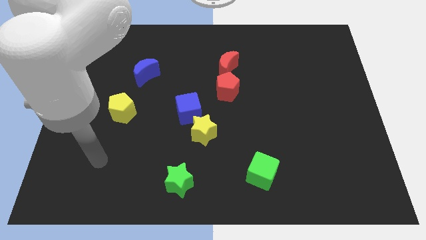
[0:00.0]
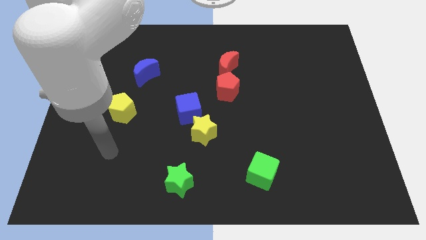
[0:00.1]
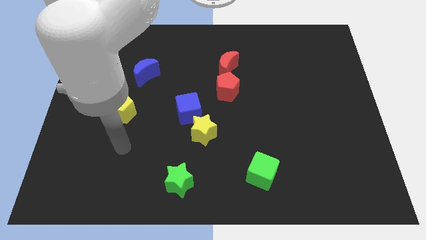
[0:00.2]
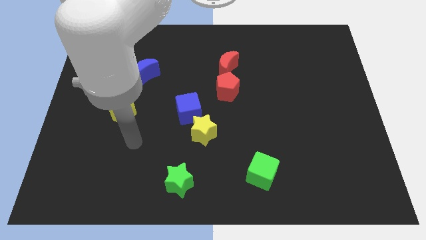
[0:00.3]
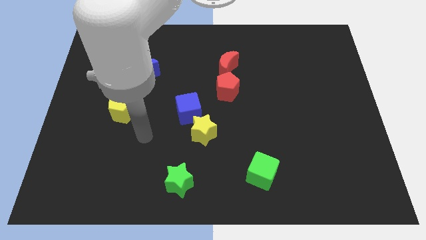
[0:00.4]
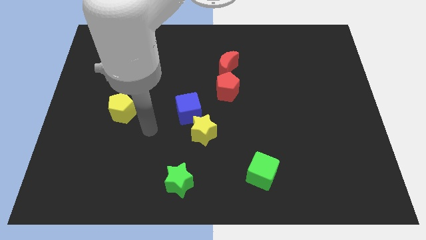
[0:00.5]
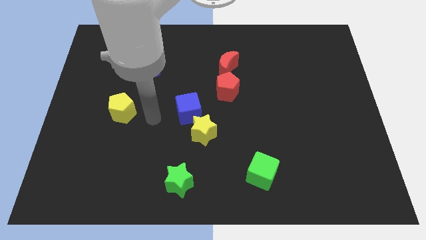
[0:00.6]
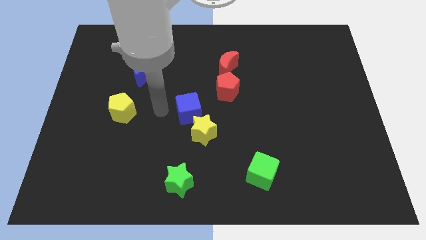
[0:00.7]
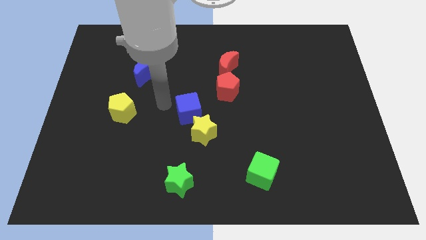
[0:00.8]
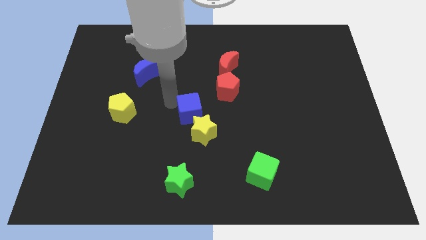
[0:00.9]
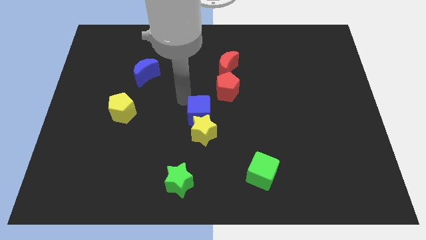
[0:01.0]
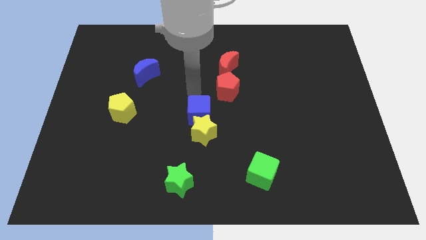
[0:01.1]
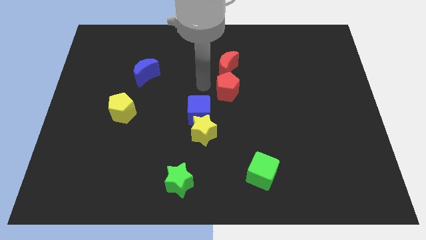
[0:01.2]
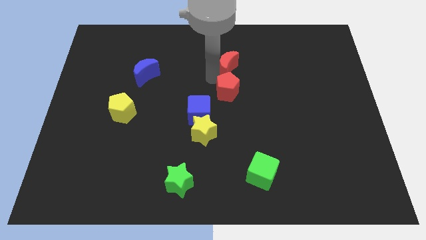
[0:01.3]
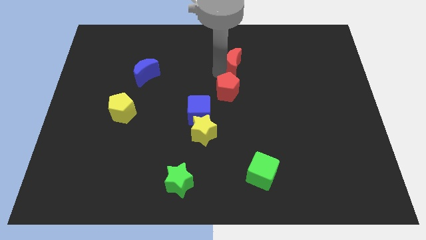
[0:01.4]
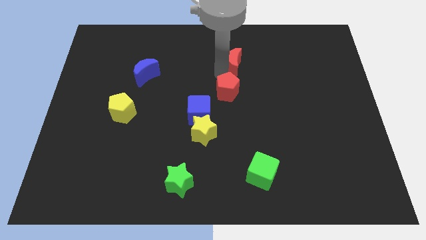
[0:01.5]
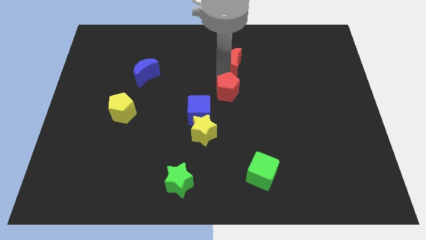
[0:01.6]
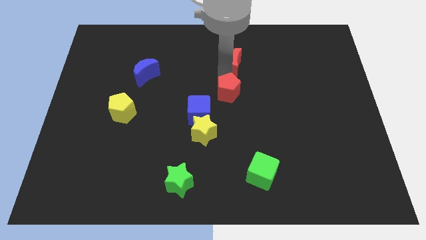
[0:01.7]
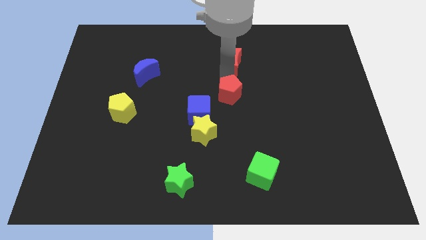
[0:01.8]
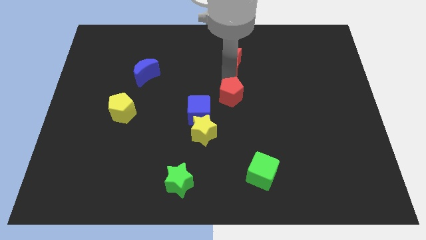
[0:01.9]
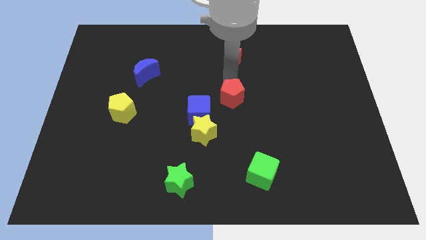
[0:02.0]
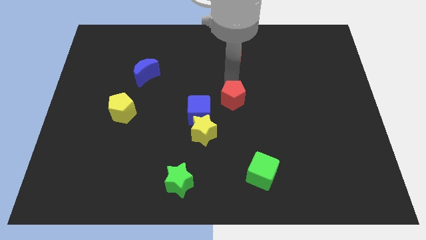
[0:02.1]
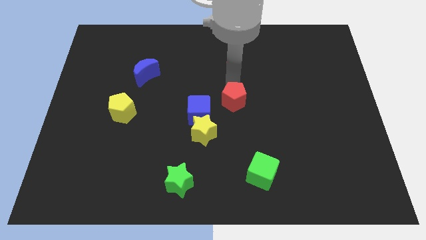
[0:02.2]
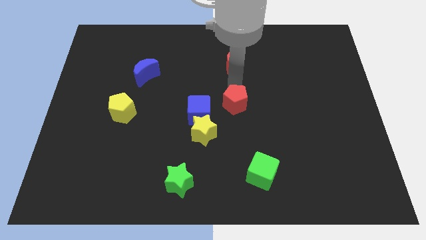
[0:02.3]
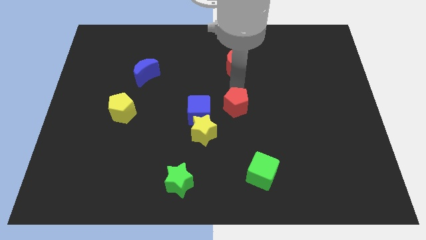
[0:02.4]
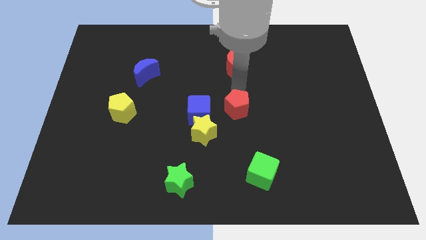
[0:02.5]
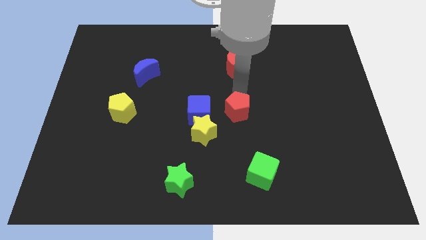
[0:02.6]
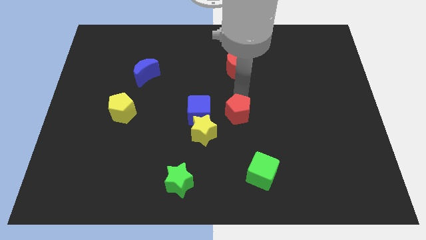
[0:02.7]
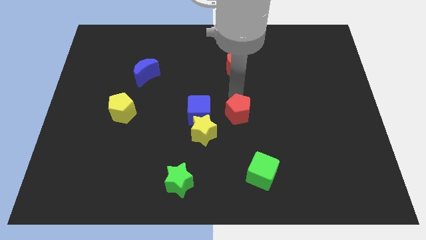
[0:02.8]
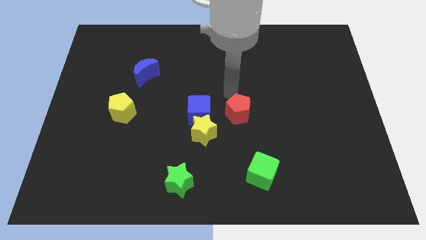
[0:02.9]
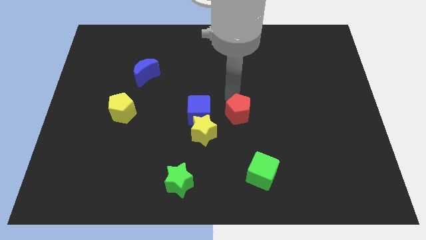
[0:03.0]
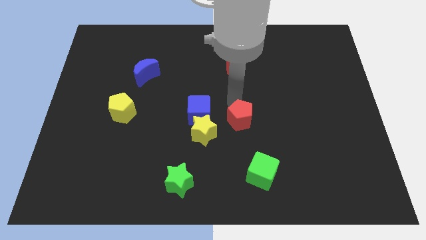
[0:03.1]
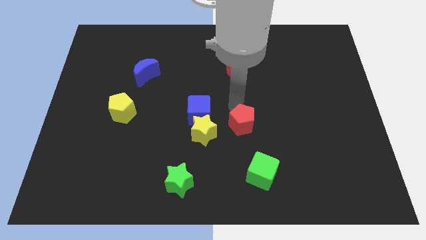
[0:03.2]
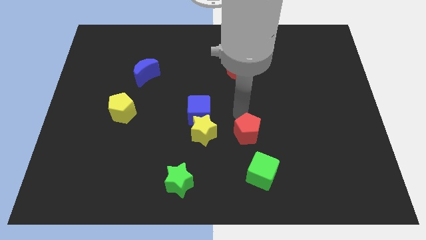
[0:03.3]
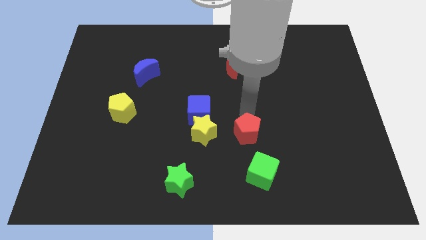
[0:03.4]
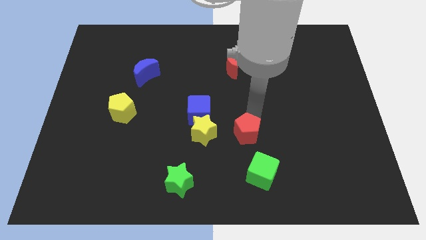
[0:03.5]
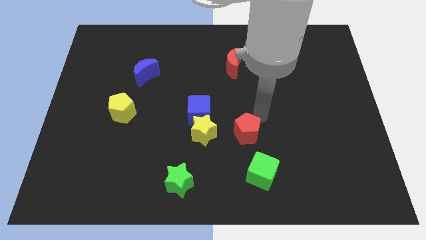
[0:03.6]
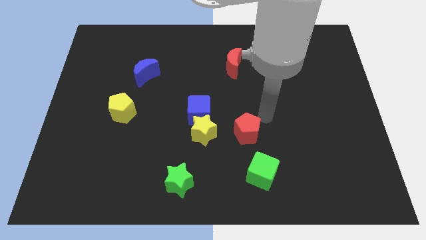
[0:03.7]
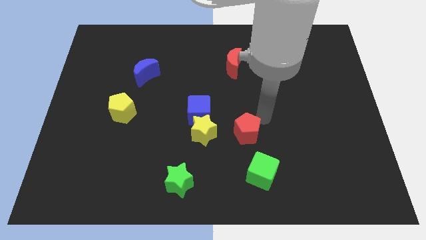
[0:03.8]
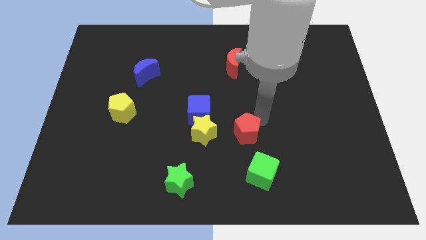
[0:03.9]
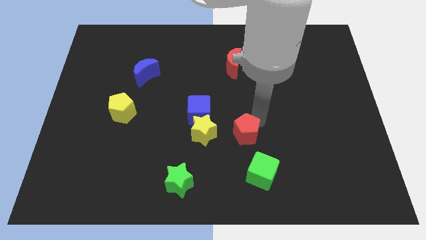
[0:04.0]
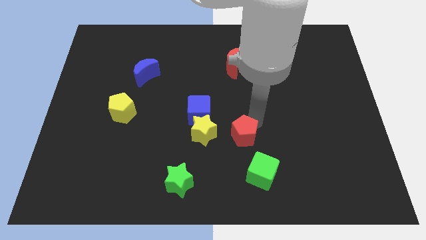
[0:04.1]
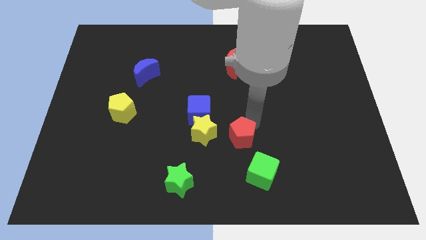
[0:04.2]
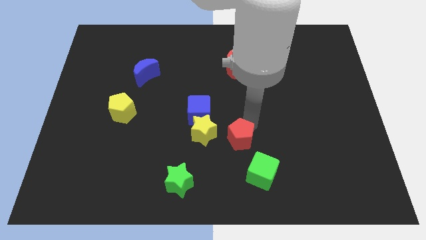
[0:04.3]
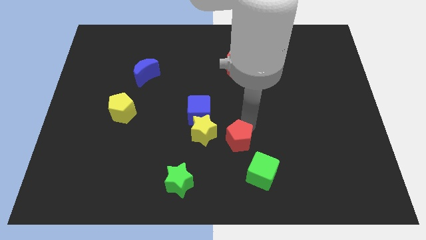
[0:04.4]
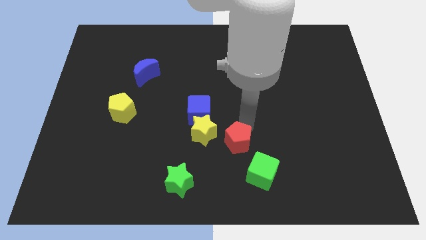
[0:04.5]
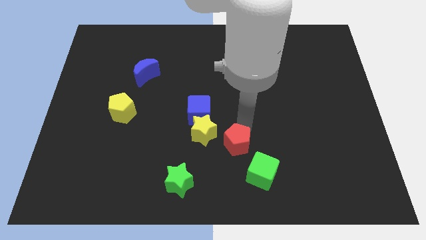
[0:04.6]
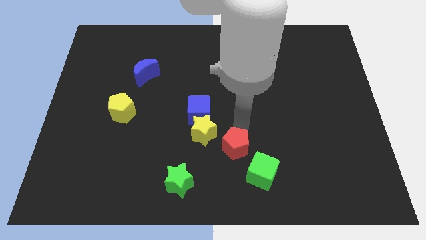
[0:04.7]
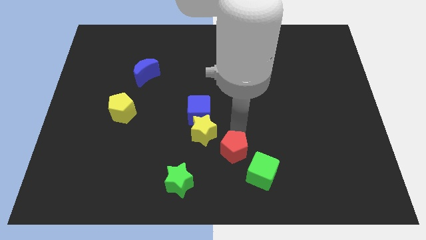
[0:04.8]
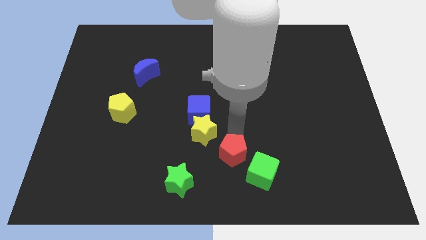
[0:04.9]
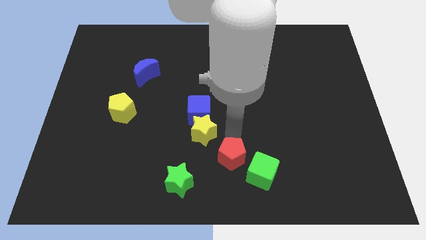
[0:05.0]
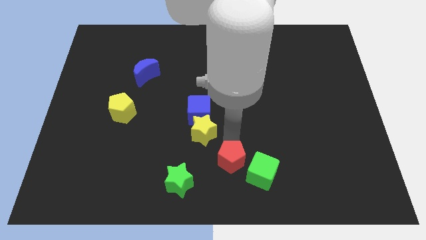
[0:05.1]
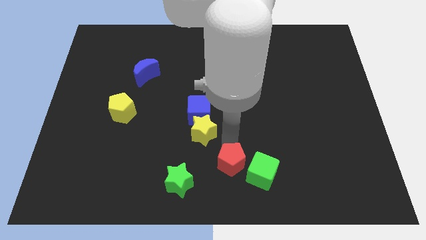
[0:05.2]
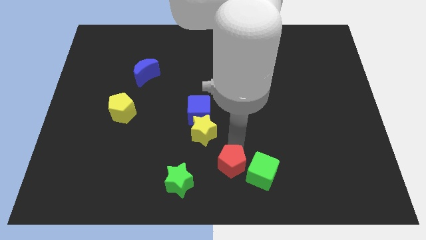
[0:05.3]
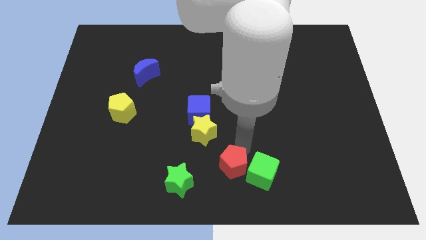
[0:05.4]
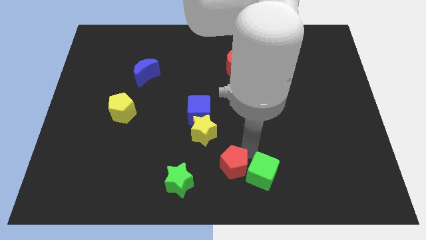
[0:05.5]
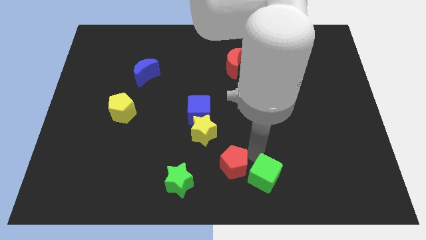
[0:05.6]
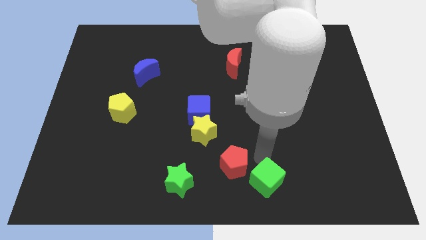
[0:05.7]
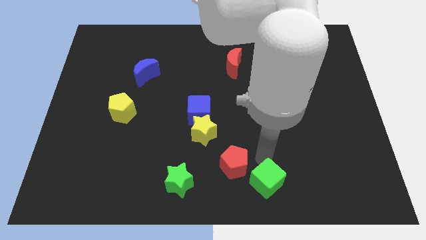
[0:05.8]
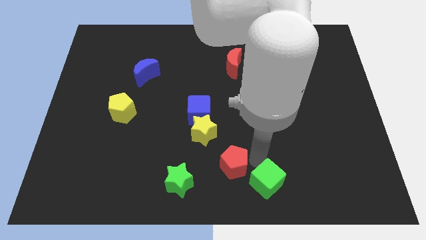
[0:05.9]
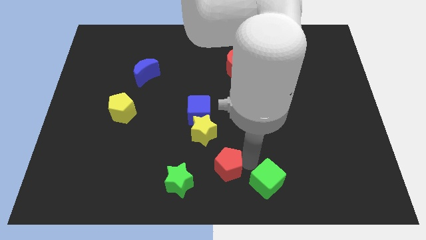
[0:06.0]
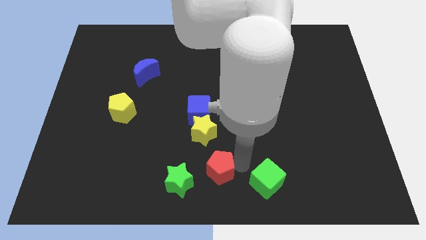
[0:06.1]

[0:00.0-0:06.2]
move the red pentagon below the yellow star
